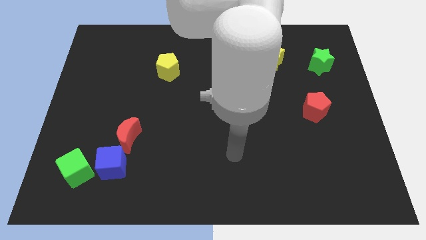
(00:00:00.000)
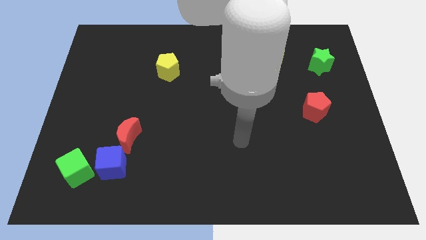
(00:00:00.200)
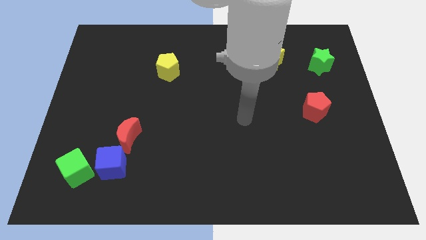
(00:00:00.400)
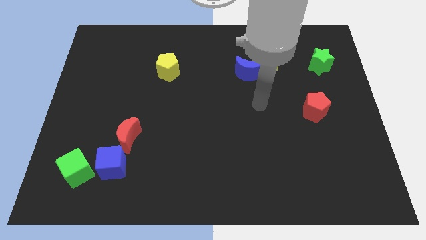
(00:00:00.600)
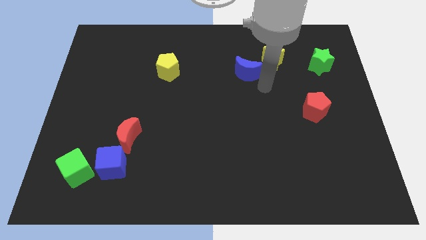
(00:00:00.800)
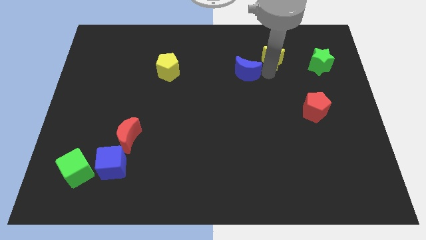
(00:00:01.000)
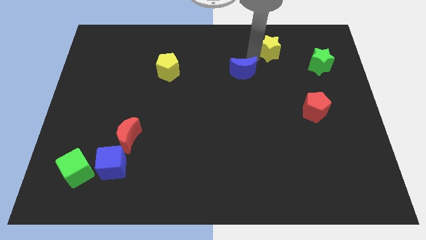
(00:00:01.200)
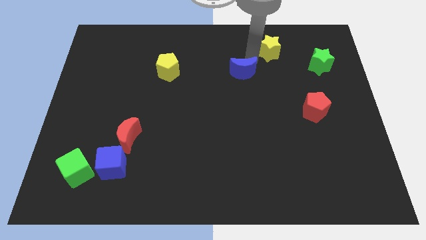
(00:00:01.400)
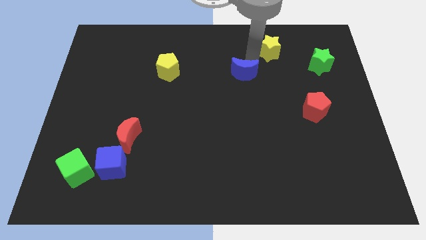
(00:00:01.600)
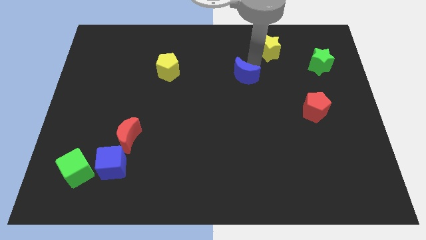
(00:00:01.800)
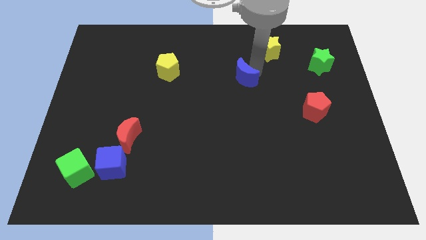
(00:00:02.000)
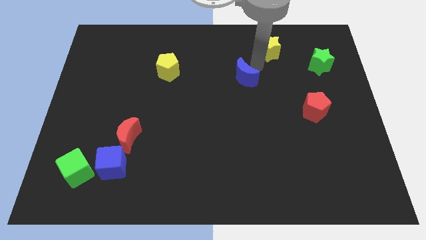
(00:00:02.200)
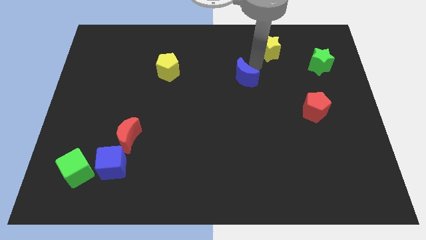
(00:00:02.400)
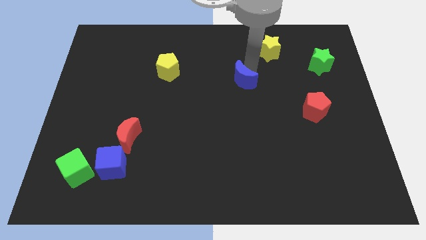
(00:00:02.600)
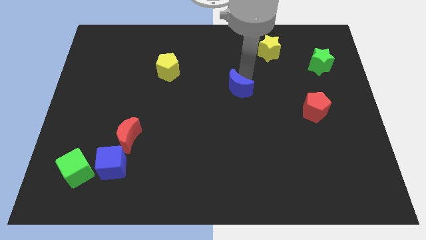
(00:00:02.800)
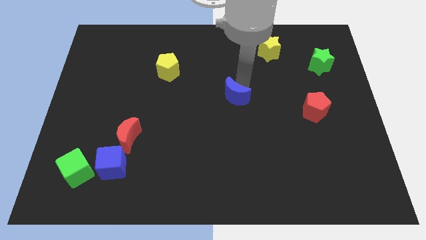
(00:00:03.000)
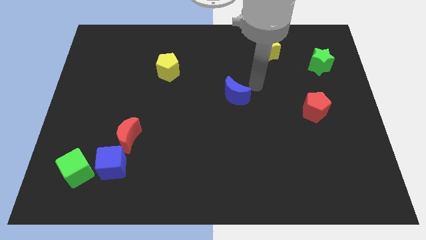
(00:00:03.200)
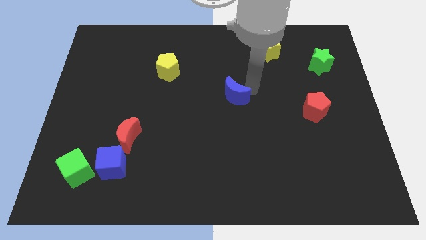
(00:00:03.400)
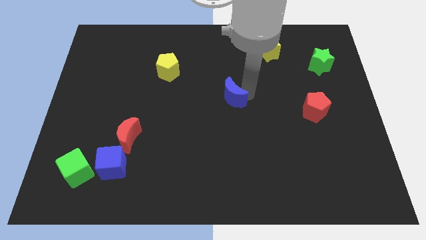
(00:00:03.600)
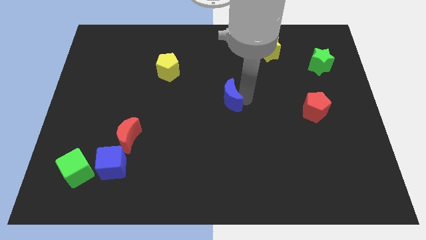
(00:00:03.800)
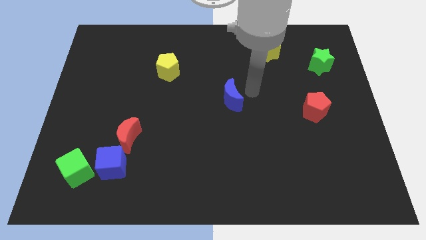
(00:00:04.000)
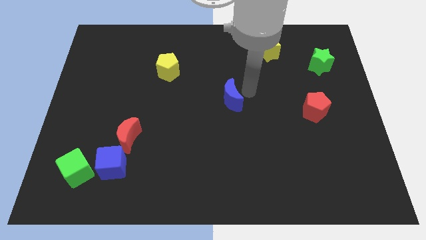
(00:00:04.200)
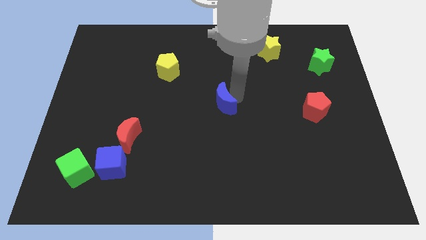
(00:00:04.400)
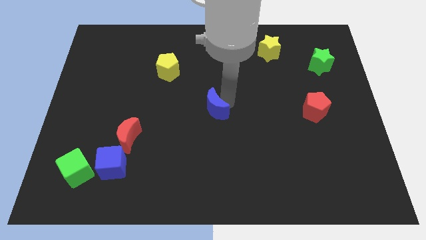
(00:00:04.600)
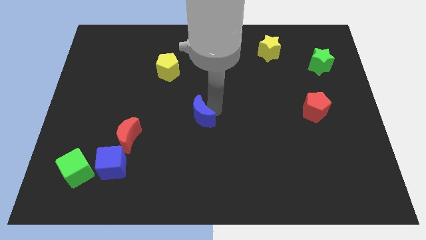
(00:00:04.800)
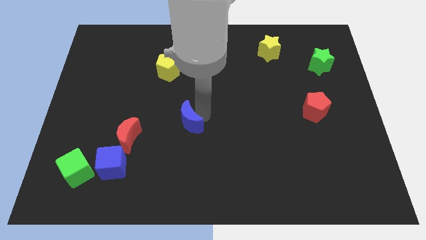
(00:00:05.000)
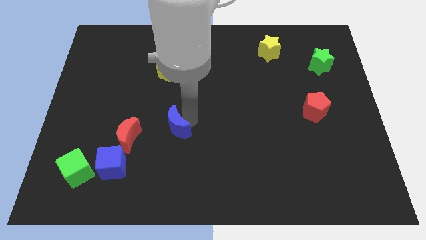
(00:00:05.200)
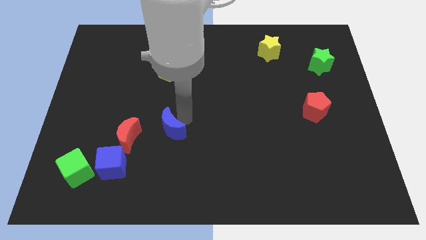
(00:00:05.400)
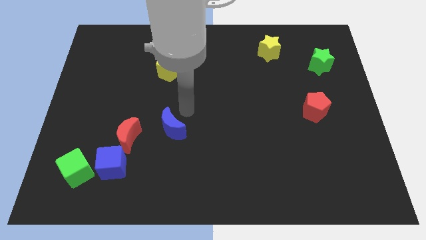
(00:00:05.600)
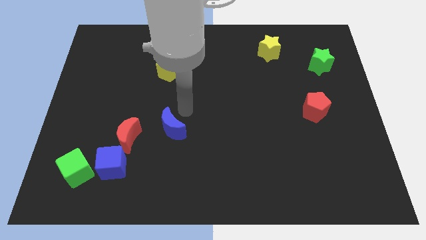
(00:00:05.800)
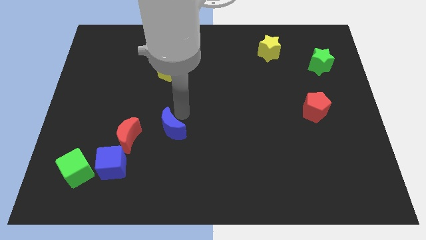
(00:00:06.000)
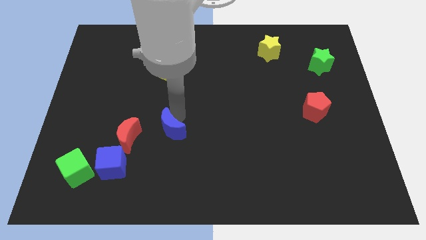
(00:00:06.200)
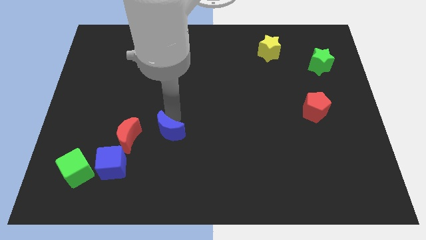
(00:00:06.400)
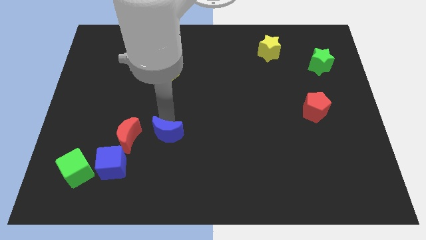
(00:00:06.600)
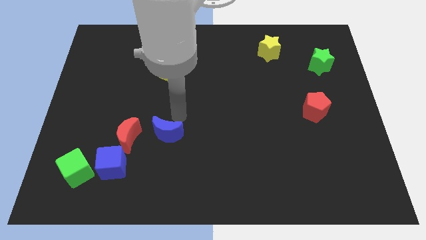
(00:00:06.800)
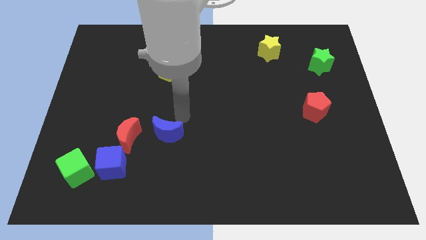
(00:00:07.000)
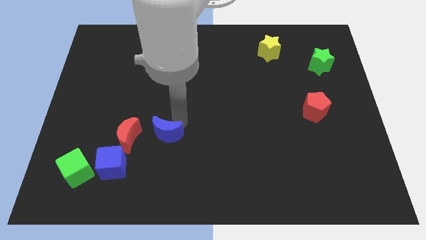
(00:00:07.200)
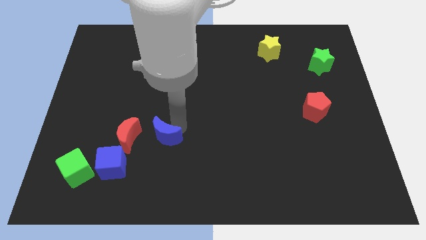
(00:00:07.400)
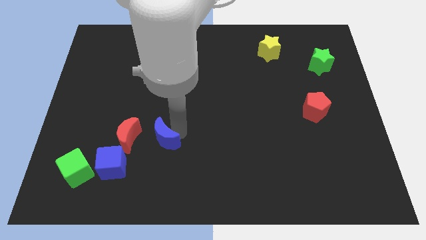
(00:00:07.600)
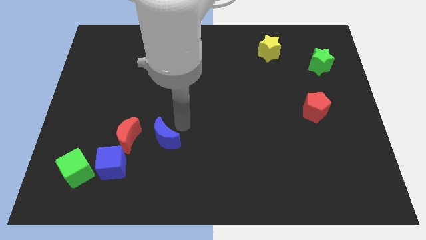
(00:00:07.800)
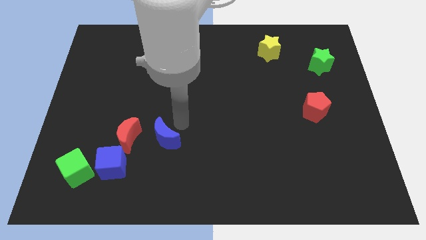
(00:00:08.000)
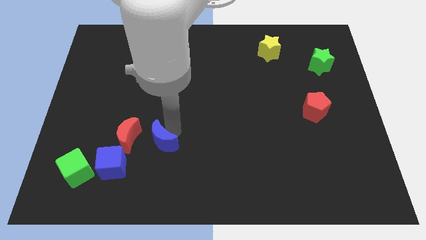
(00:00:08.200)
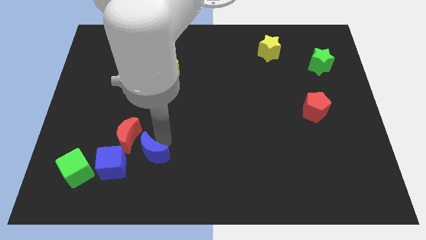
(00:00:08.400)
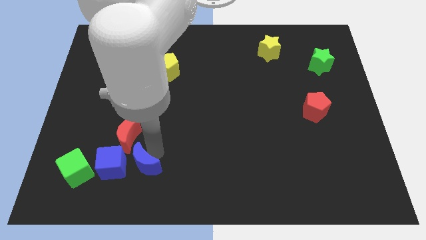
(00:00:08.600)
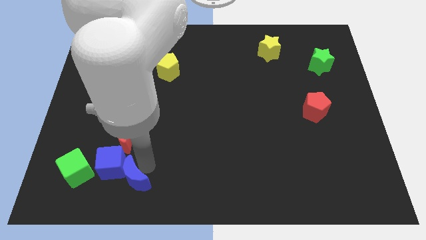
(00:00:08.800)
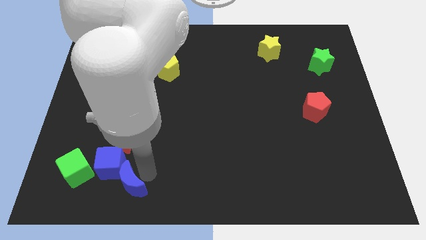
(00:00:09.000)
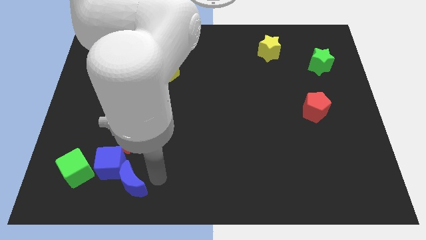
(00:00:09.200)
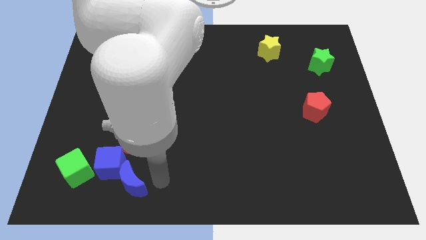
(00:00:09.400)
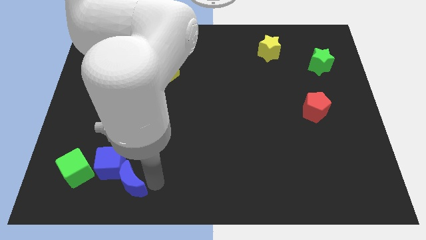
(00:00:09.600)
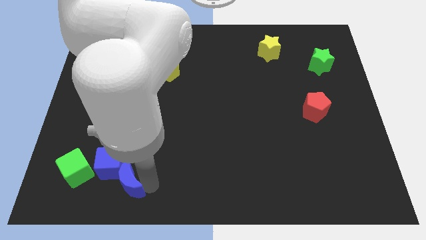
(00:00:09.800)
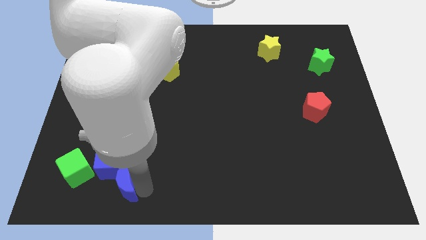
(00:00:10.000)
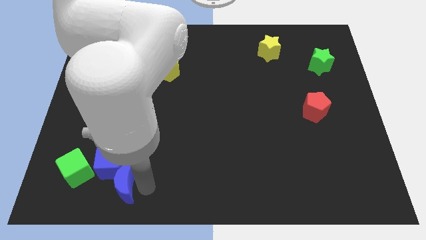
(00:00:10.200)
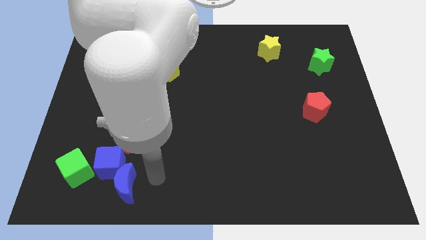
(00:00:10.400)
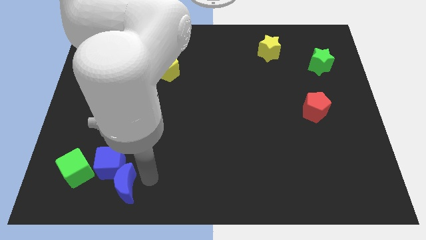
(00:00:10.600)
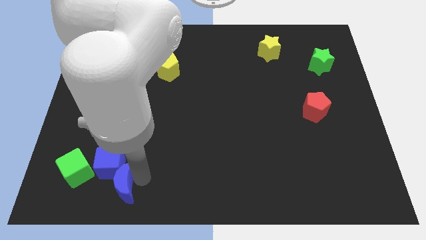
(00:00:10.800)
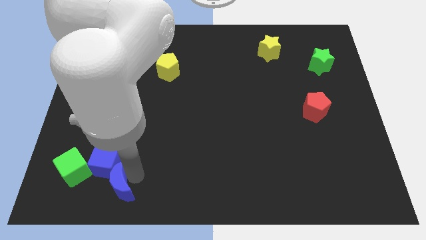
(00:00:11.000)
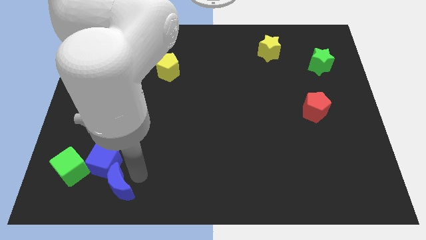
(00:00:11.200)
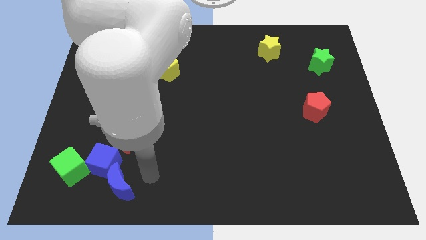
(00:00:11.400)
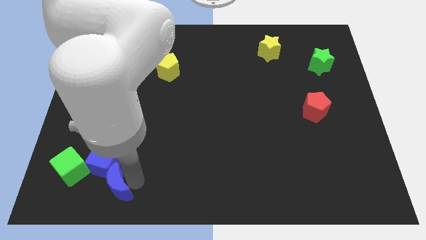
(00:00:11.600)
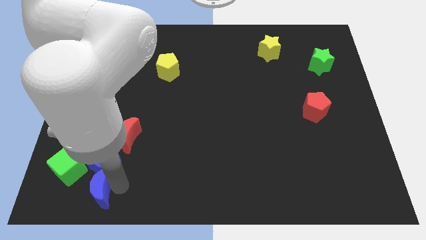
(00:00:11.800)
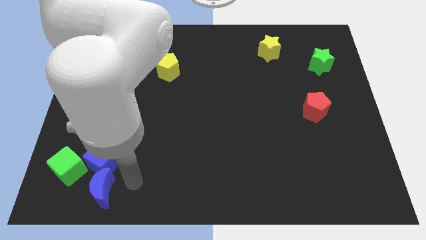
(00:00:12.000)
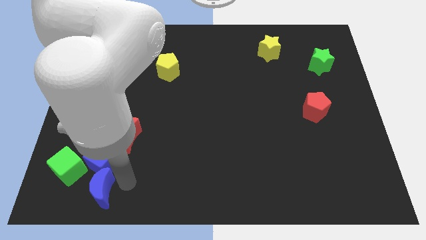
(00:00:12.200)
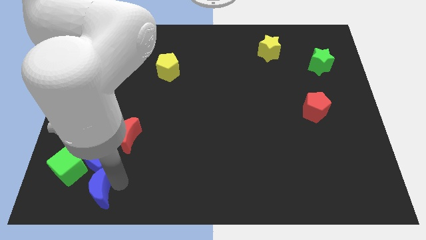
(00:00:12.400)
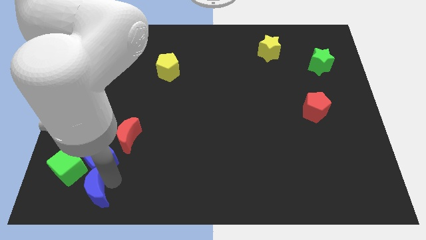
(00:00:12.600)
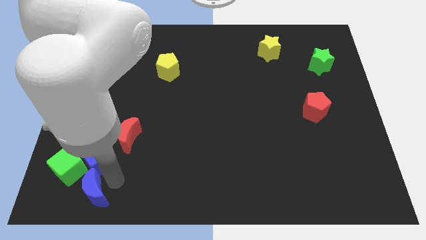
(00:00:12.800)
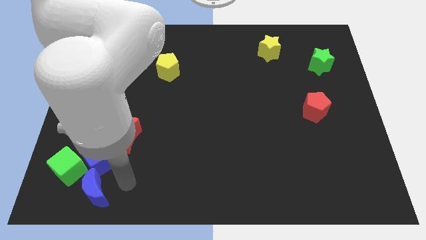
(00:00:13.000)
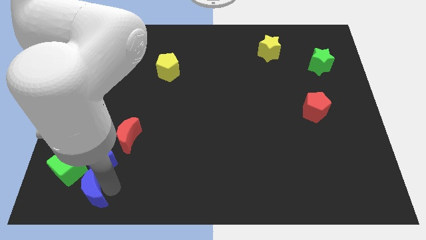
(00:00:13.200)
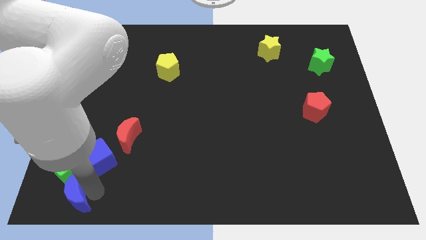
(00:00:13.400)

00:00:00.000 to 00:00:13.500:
slide the blue moon to the bottom left of the board
